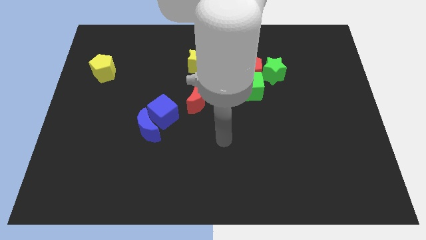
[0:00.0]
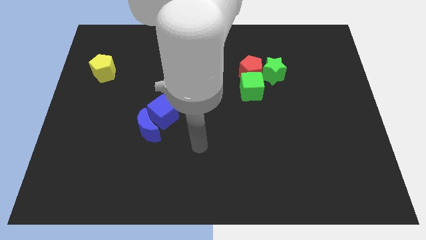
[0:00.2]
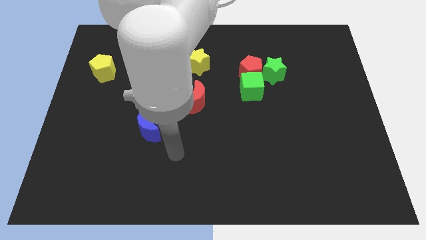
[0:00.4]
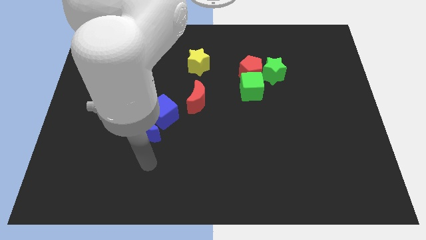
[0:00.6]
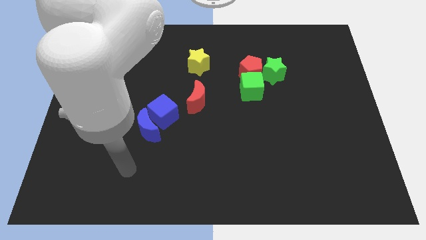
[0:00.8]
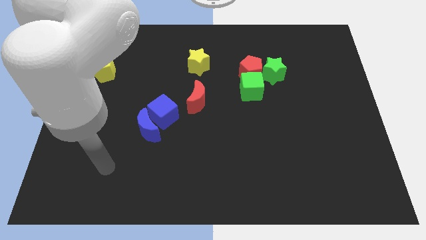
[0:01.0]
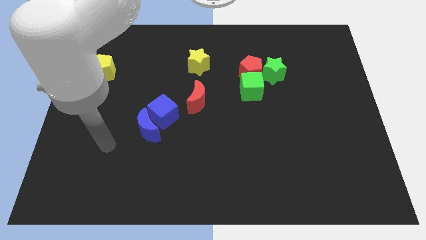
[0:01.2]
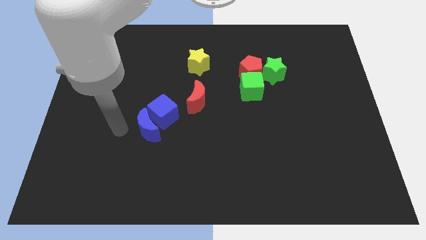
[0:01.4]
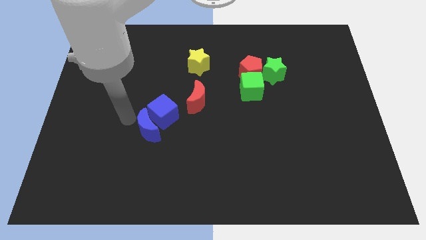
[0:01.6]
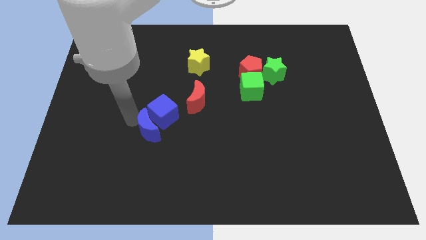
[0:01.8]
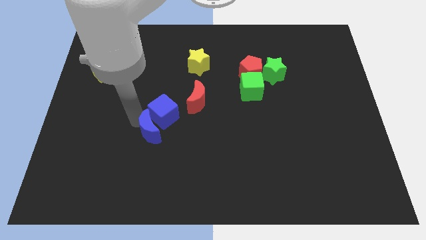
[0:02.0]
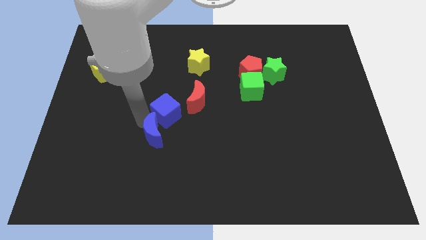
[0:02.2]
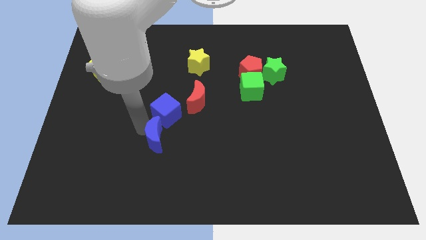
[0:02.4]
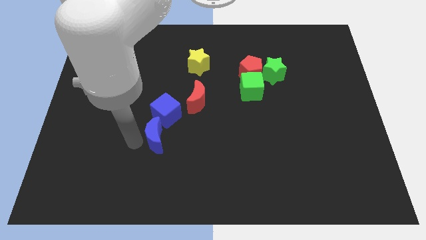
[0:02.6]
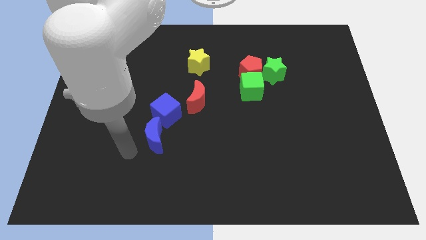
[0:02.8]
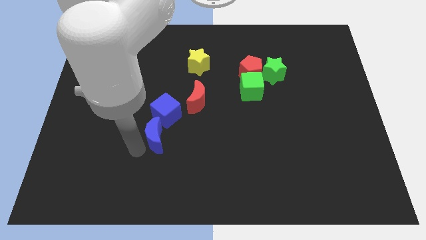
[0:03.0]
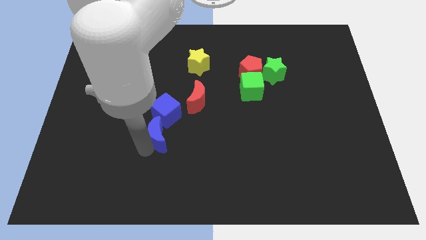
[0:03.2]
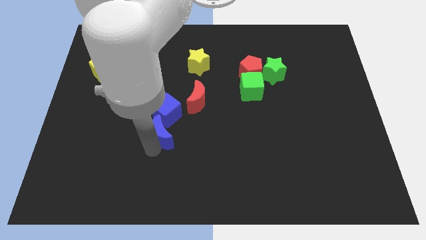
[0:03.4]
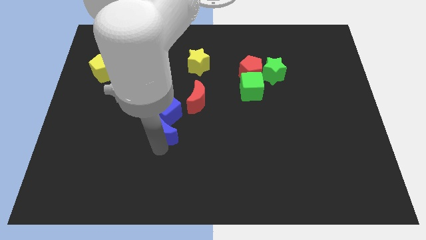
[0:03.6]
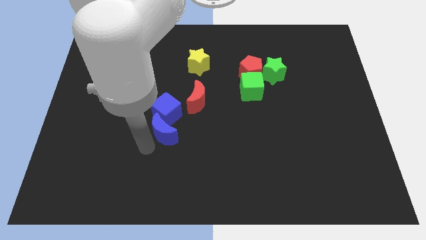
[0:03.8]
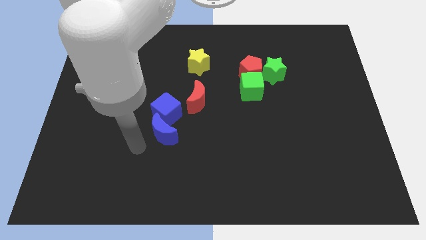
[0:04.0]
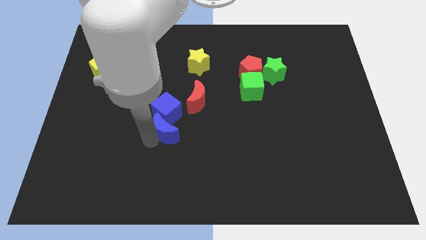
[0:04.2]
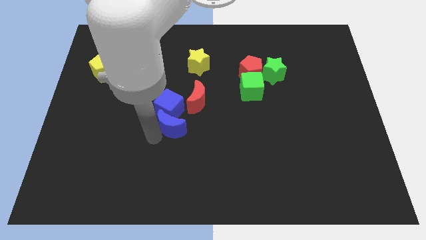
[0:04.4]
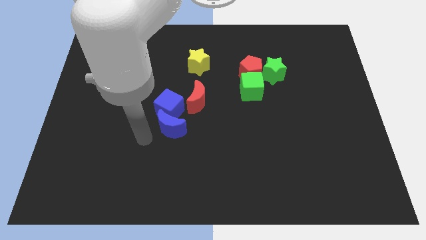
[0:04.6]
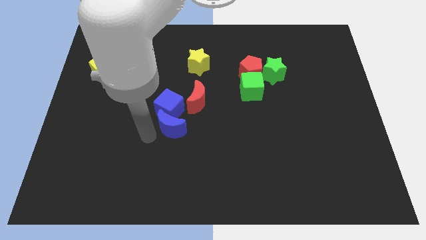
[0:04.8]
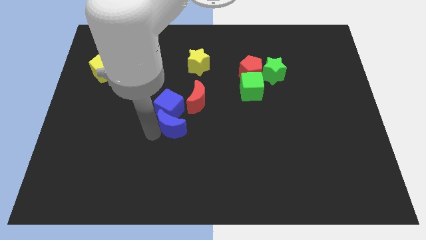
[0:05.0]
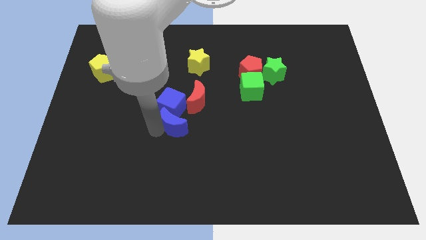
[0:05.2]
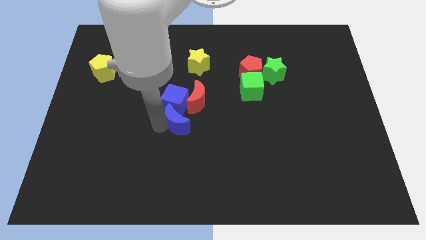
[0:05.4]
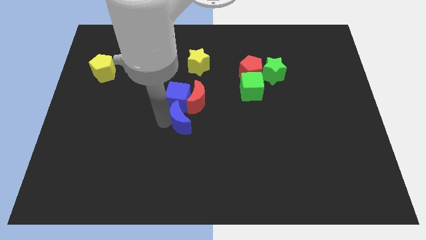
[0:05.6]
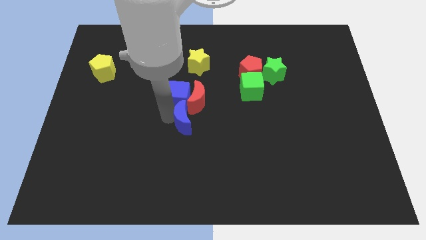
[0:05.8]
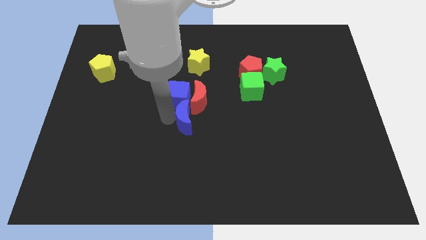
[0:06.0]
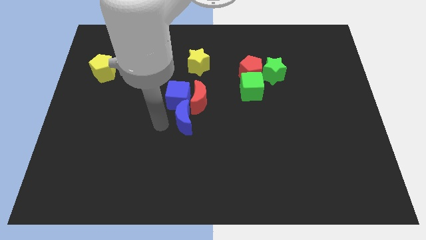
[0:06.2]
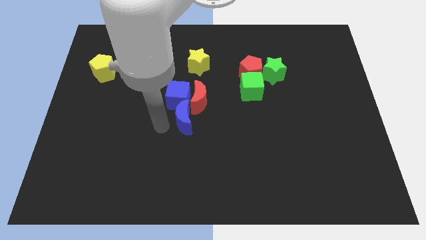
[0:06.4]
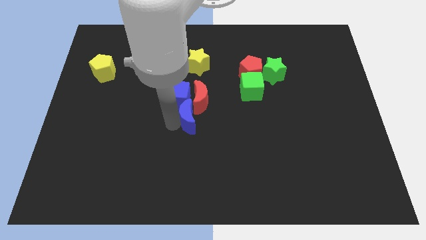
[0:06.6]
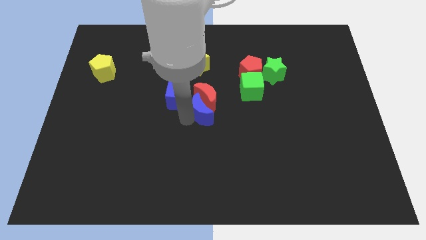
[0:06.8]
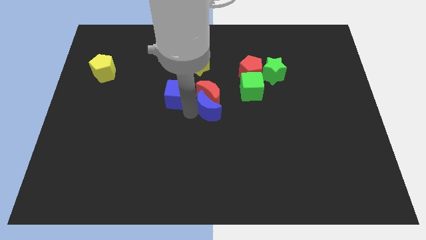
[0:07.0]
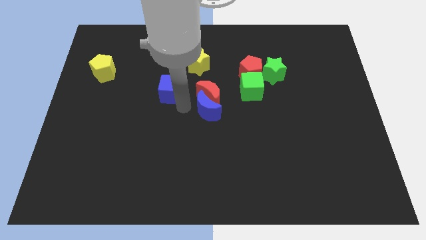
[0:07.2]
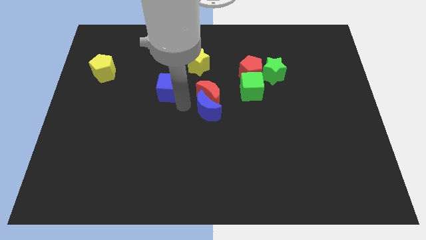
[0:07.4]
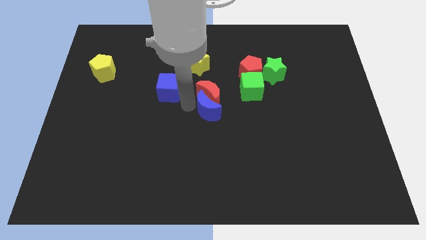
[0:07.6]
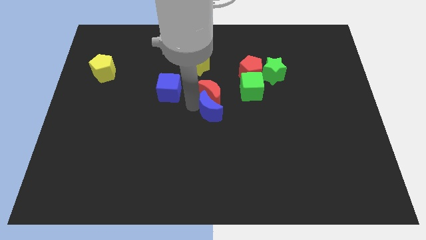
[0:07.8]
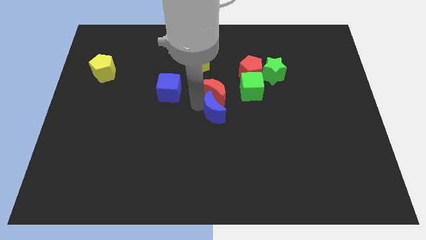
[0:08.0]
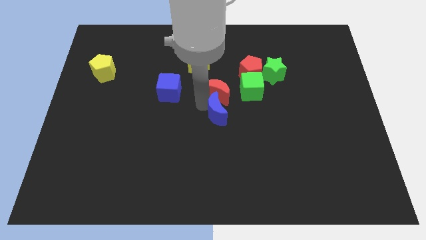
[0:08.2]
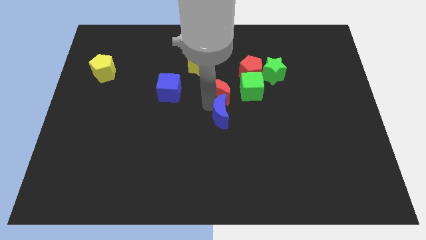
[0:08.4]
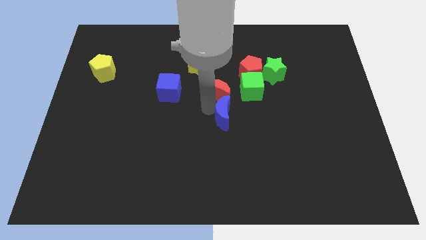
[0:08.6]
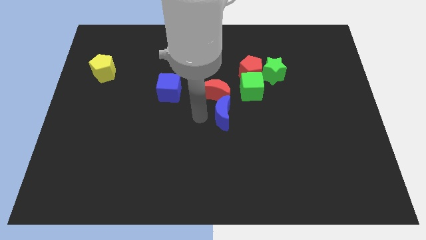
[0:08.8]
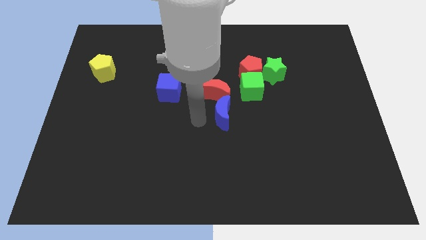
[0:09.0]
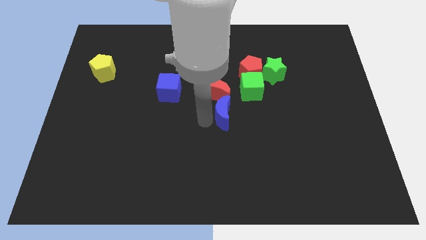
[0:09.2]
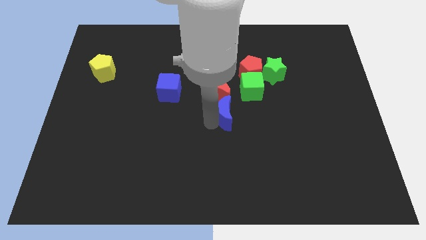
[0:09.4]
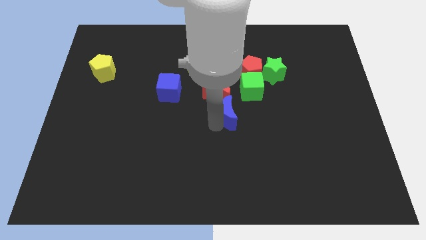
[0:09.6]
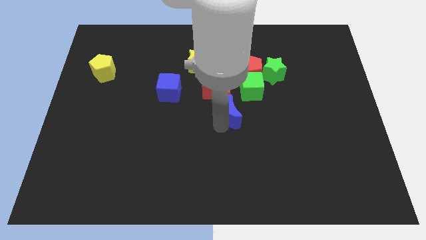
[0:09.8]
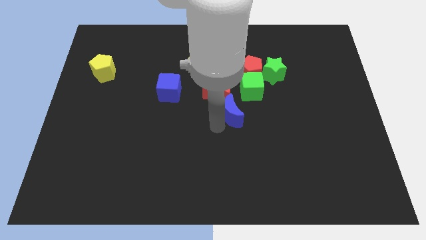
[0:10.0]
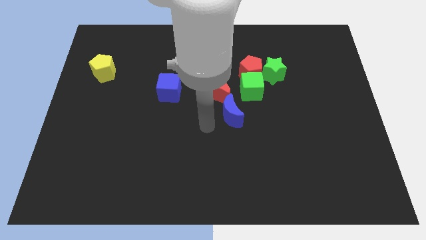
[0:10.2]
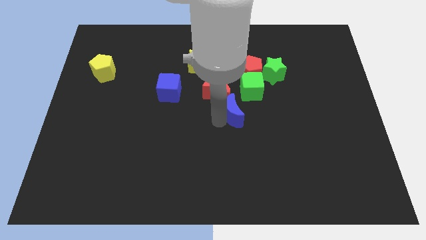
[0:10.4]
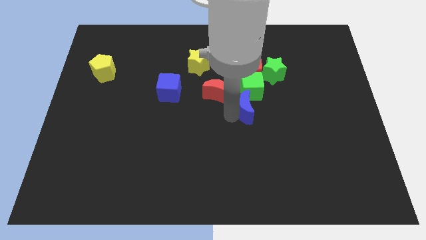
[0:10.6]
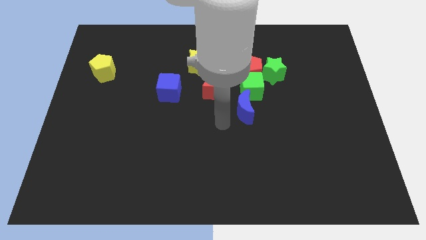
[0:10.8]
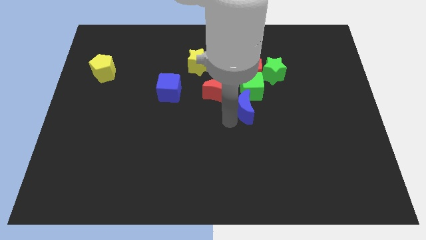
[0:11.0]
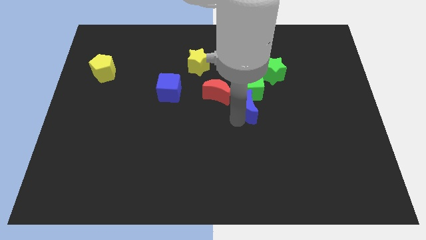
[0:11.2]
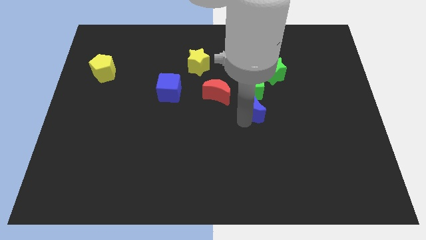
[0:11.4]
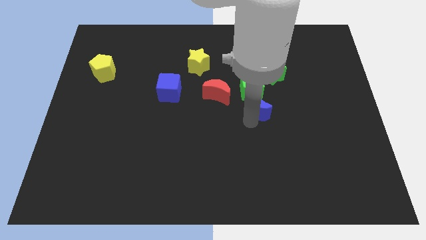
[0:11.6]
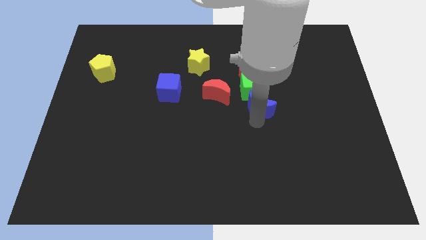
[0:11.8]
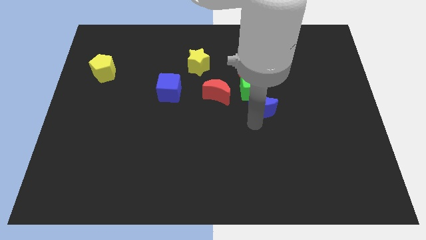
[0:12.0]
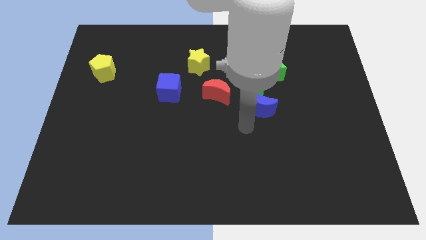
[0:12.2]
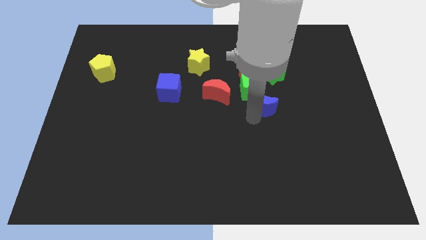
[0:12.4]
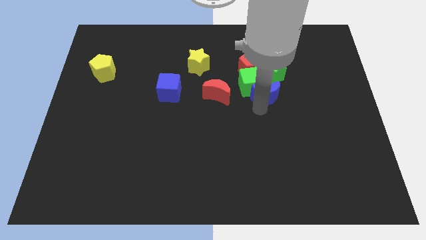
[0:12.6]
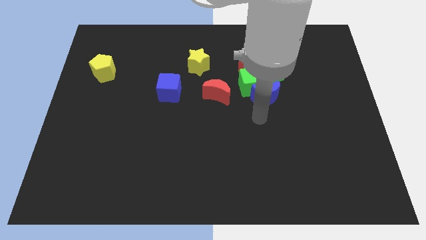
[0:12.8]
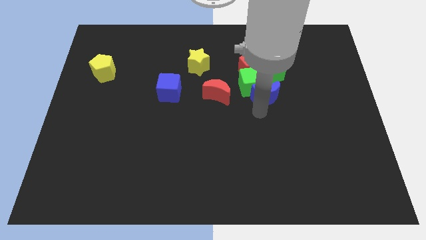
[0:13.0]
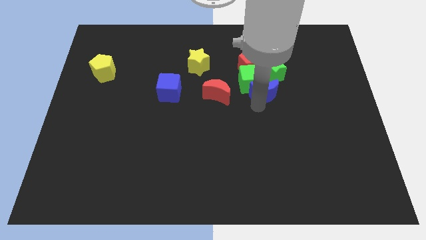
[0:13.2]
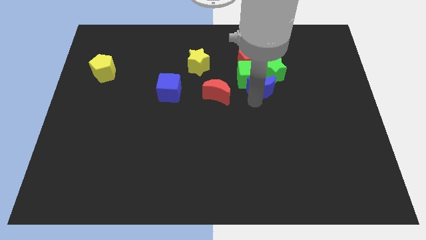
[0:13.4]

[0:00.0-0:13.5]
push the blue moon to the green star

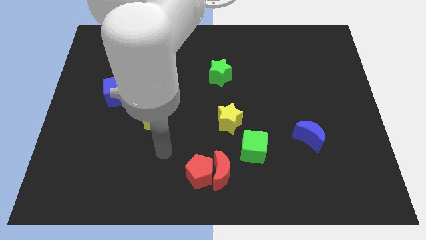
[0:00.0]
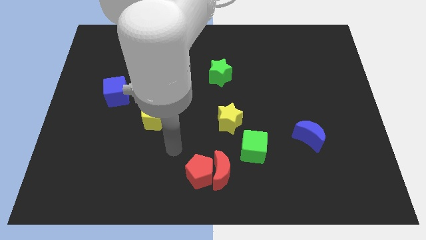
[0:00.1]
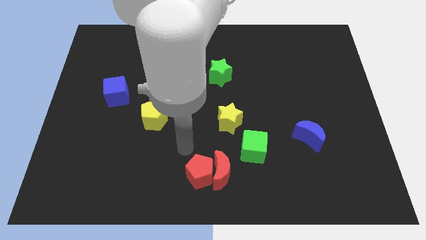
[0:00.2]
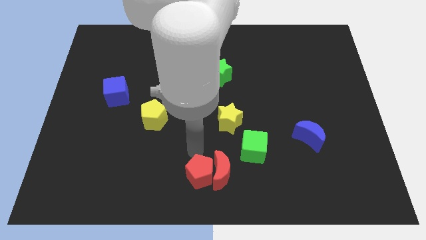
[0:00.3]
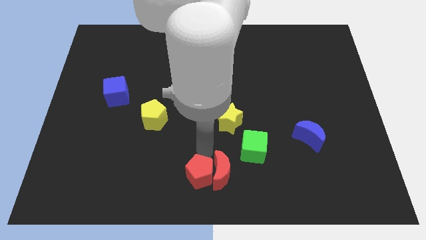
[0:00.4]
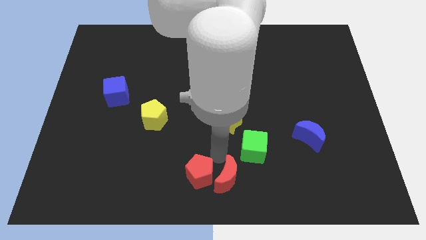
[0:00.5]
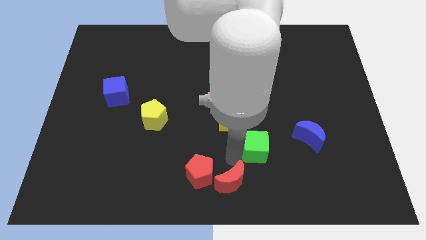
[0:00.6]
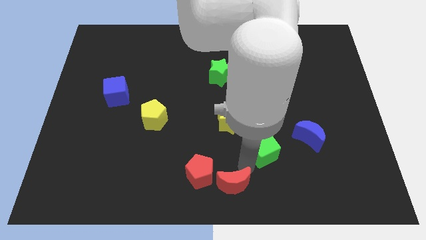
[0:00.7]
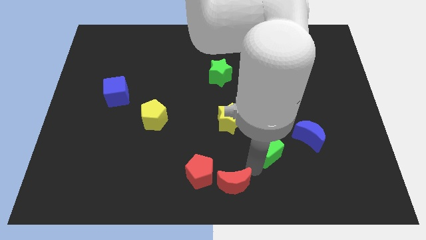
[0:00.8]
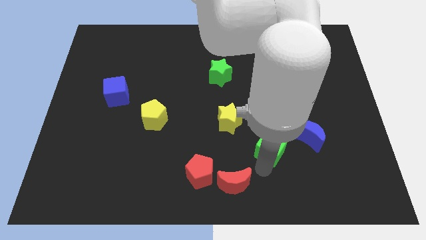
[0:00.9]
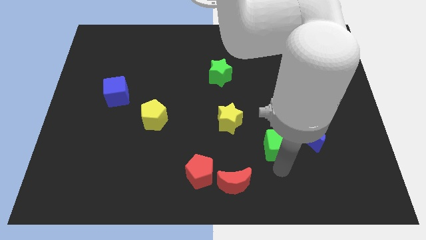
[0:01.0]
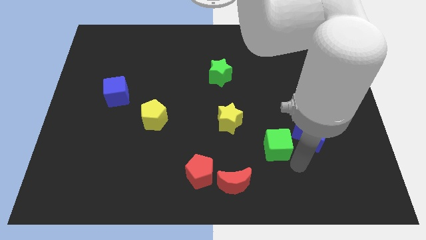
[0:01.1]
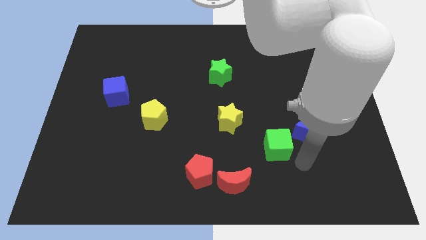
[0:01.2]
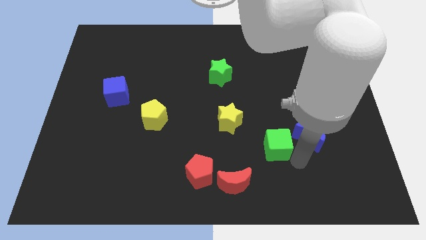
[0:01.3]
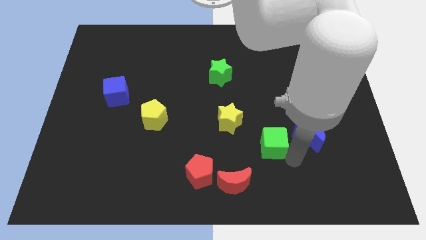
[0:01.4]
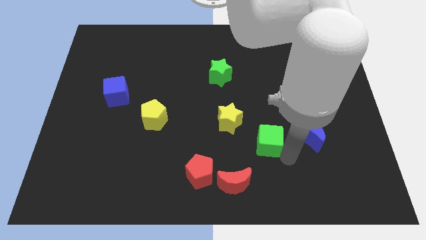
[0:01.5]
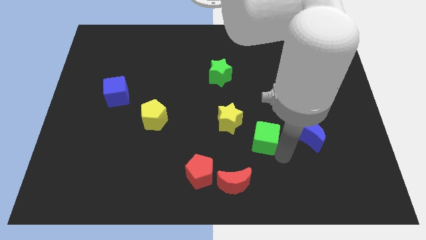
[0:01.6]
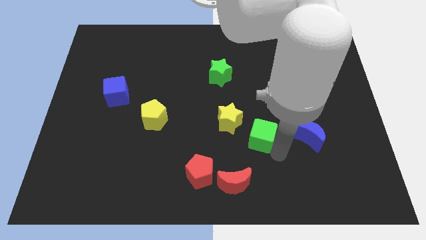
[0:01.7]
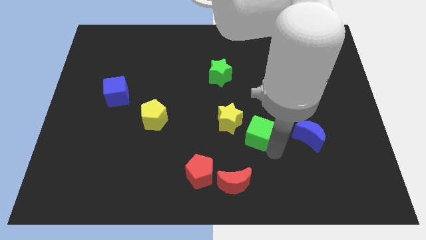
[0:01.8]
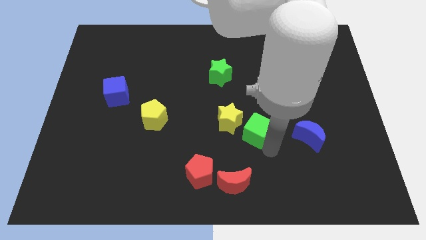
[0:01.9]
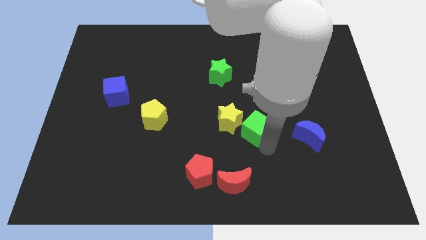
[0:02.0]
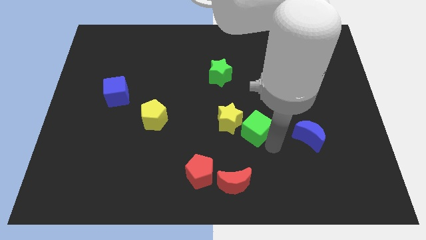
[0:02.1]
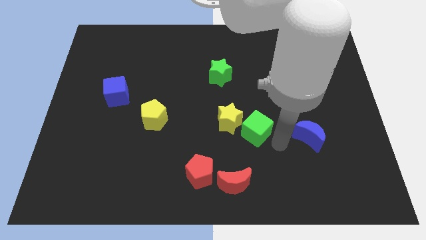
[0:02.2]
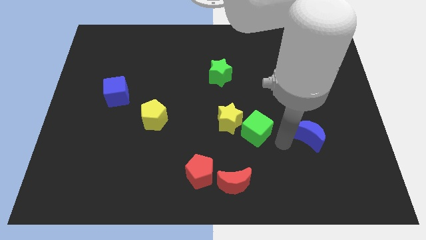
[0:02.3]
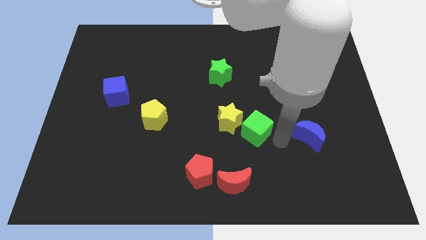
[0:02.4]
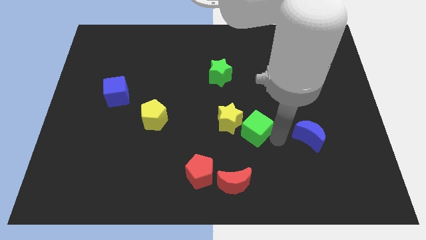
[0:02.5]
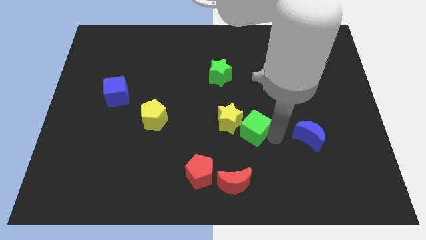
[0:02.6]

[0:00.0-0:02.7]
slide the green cube to the yellow star
